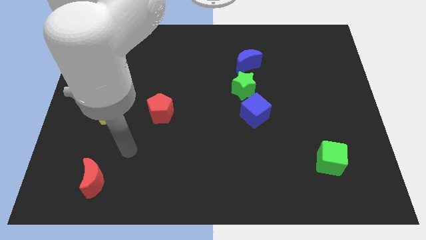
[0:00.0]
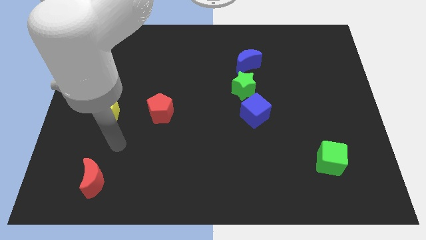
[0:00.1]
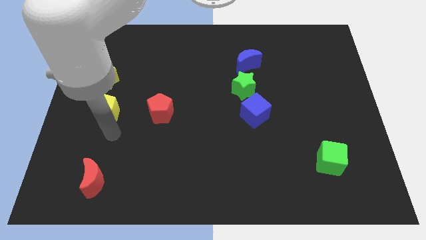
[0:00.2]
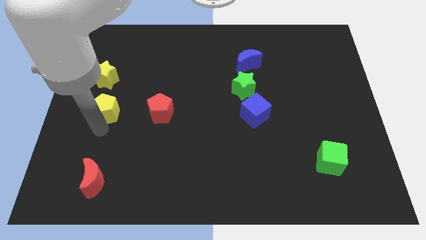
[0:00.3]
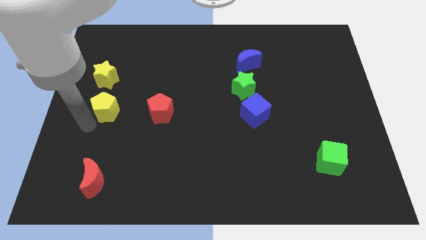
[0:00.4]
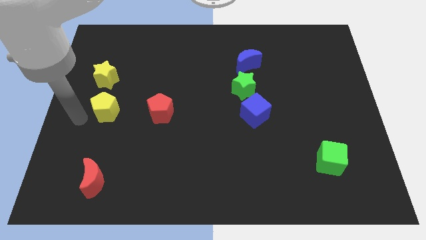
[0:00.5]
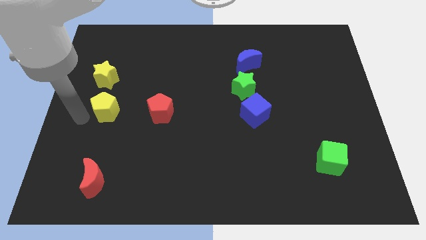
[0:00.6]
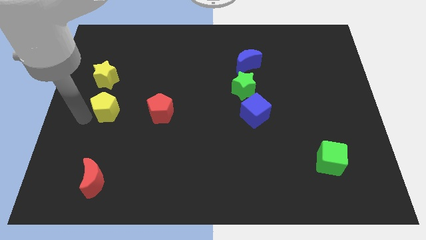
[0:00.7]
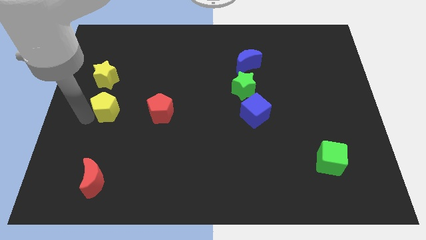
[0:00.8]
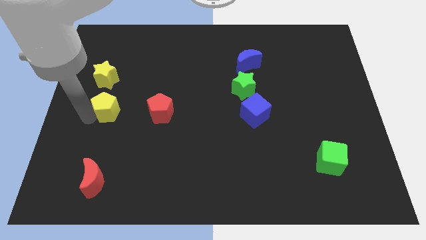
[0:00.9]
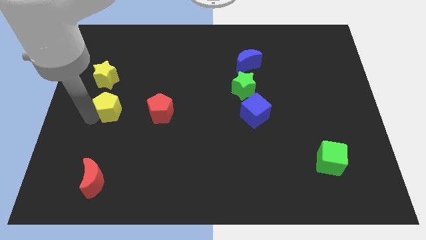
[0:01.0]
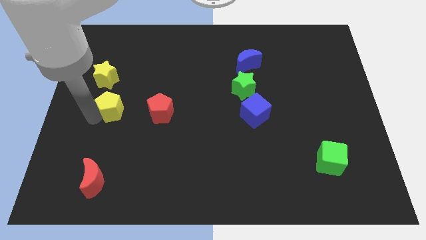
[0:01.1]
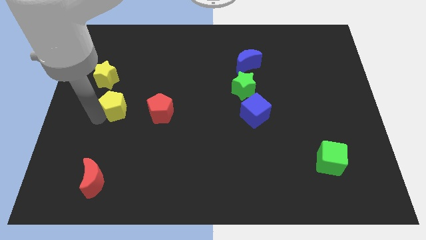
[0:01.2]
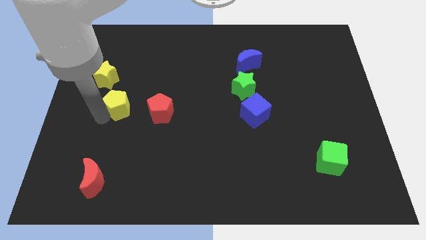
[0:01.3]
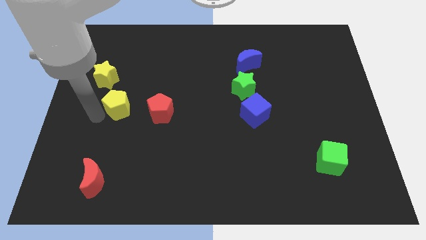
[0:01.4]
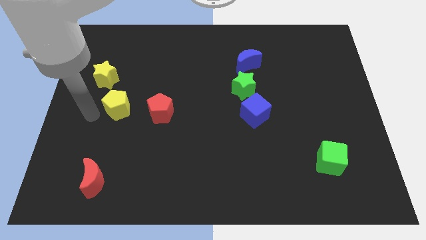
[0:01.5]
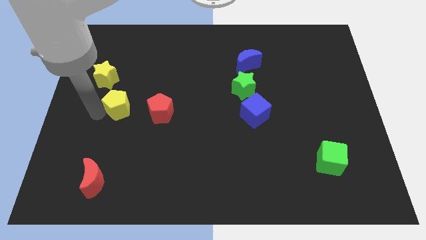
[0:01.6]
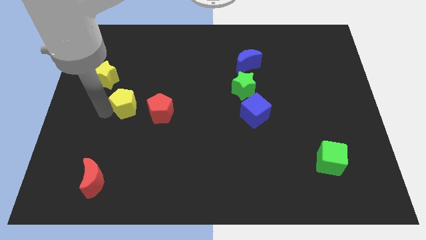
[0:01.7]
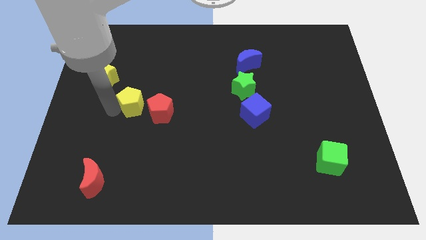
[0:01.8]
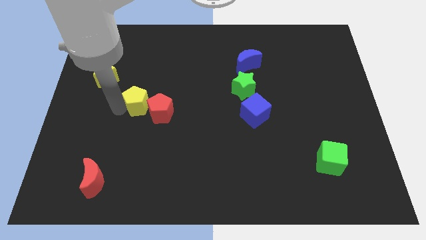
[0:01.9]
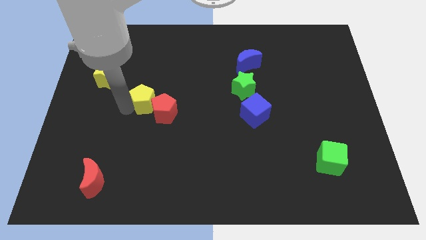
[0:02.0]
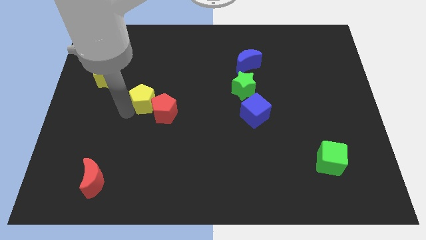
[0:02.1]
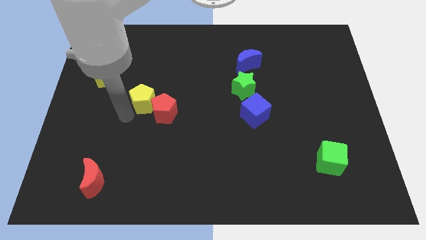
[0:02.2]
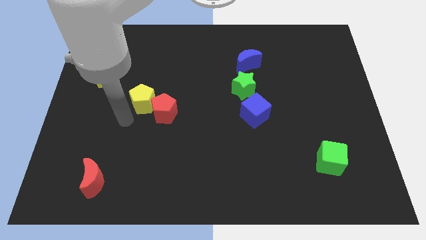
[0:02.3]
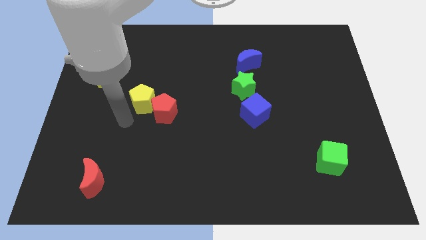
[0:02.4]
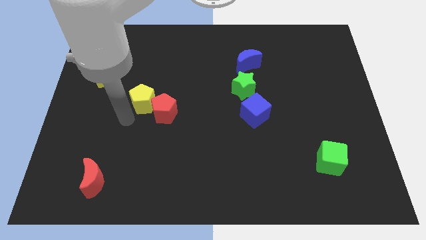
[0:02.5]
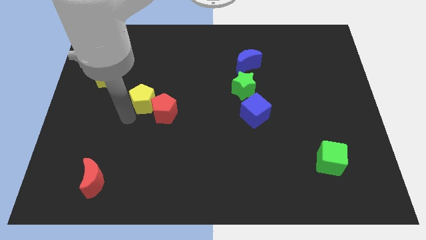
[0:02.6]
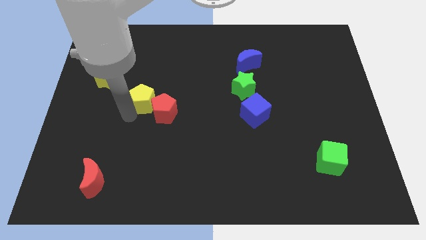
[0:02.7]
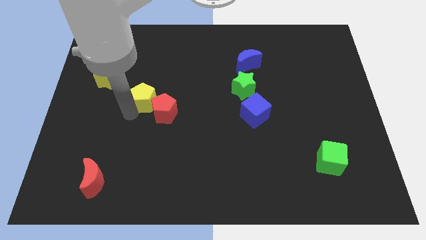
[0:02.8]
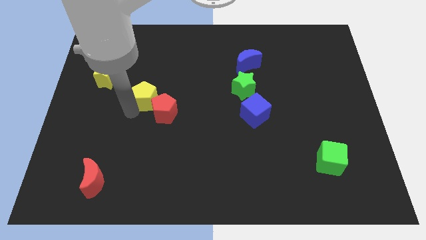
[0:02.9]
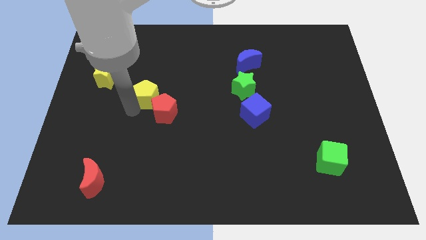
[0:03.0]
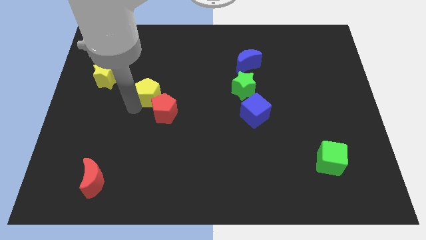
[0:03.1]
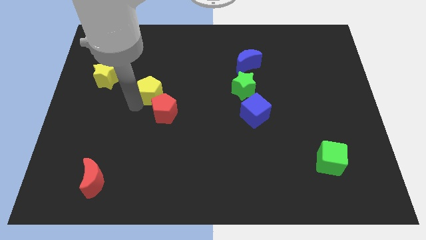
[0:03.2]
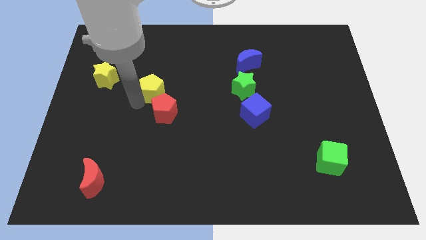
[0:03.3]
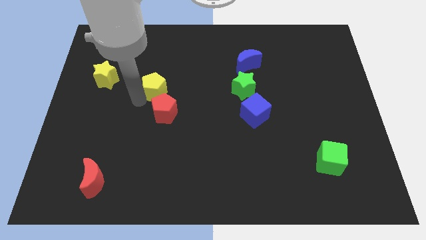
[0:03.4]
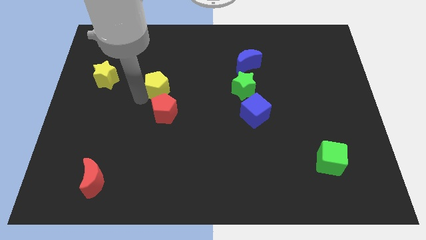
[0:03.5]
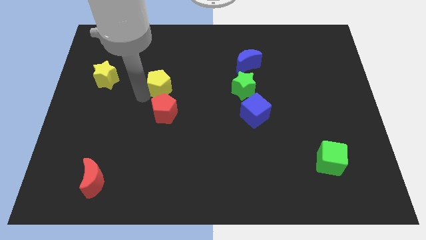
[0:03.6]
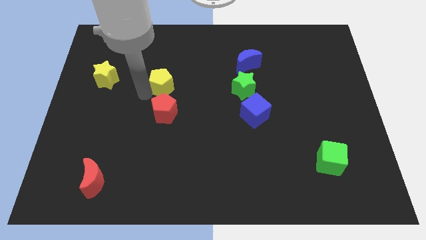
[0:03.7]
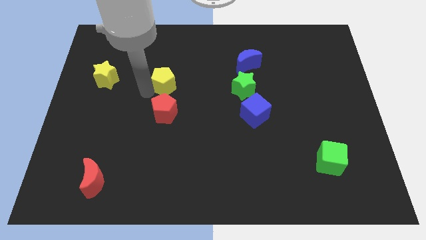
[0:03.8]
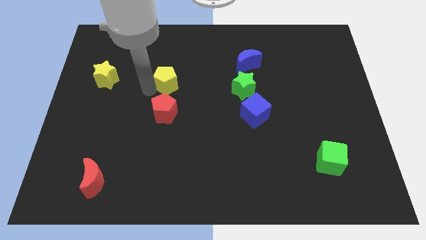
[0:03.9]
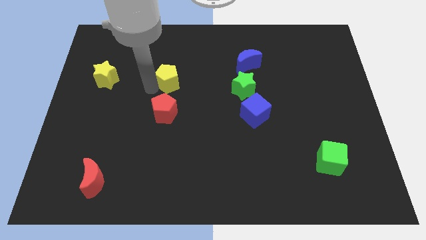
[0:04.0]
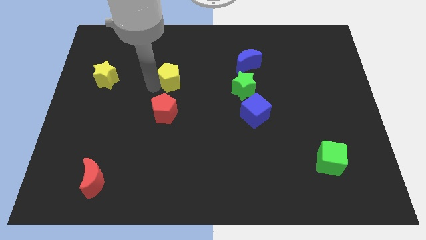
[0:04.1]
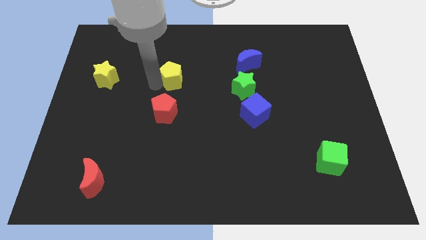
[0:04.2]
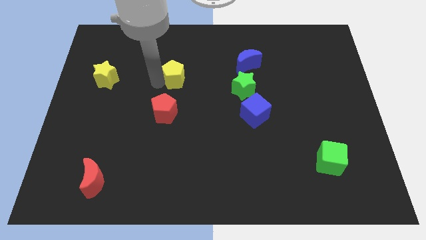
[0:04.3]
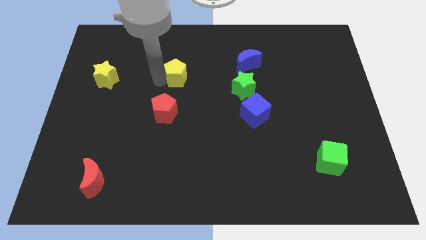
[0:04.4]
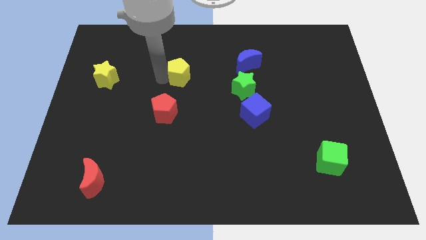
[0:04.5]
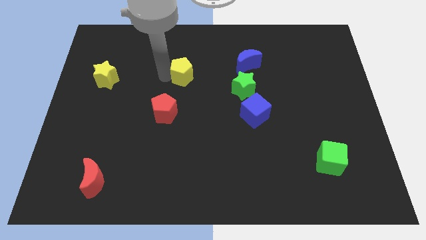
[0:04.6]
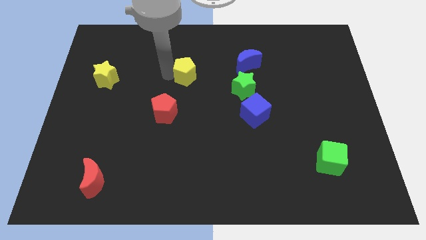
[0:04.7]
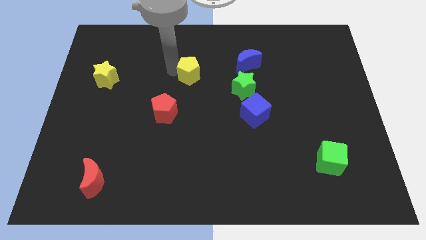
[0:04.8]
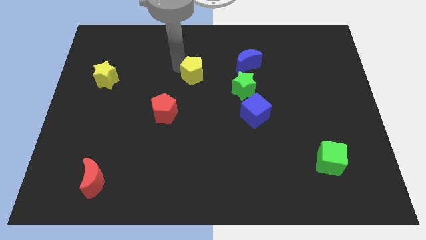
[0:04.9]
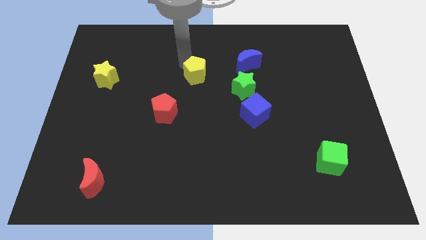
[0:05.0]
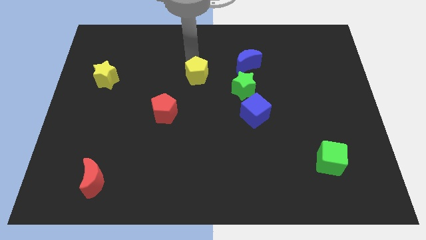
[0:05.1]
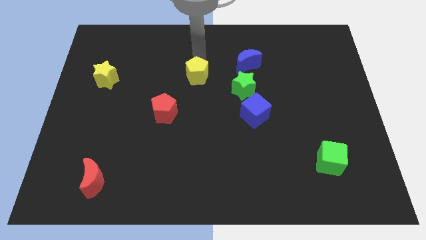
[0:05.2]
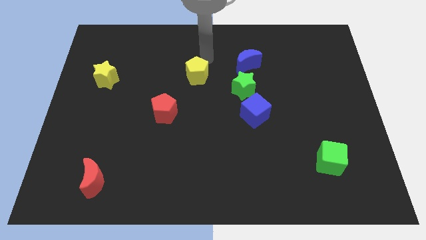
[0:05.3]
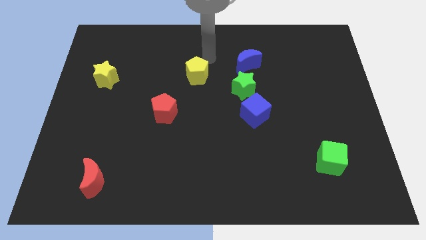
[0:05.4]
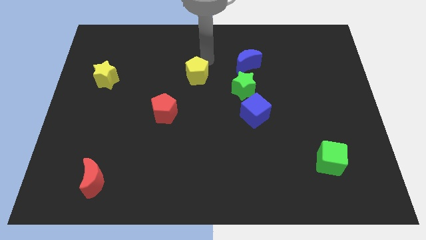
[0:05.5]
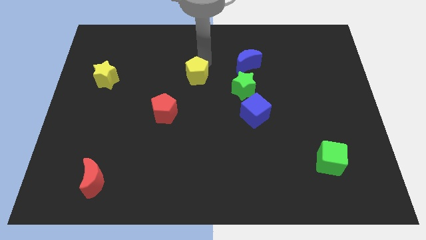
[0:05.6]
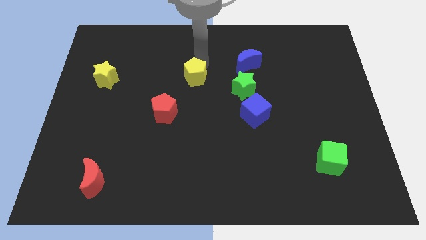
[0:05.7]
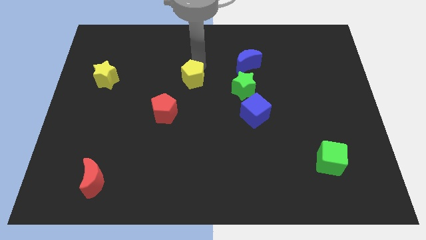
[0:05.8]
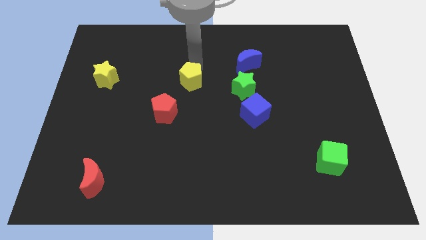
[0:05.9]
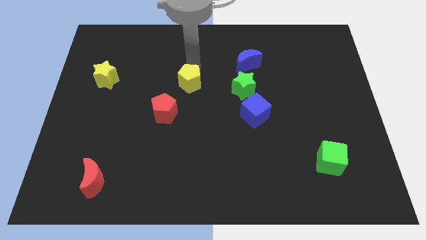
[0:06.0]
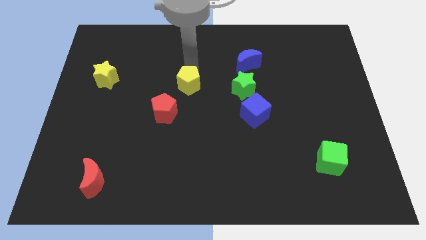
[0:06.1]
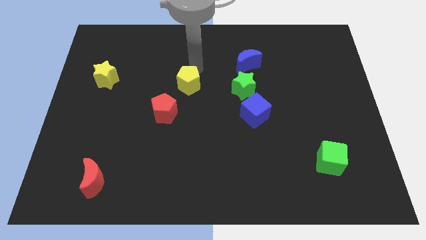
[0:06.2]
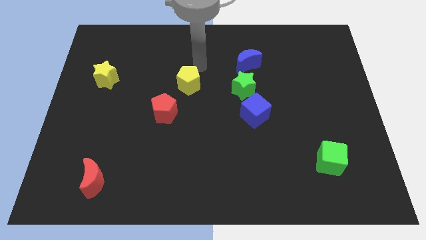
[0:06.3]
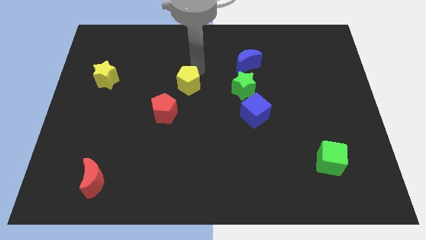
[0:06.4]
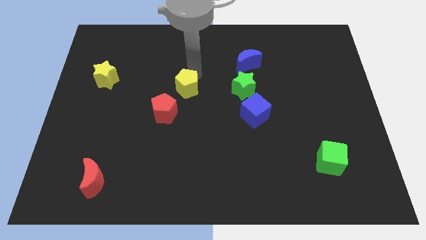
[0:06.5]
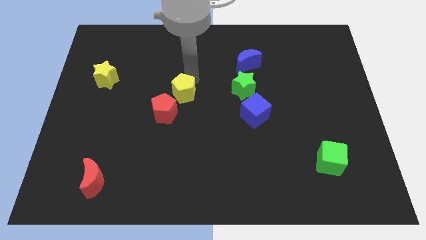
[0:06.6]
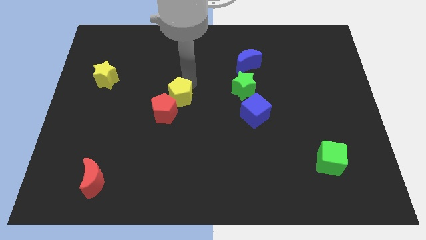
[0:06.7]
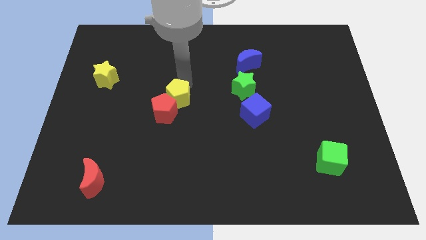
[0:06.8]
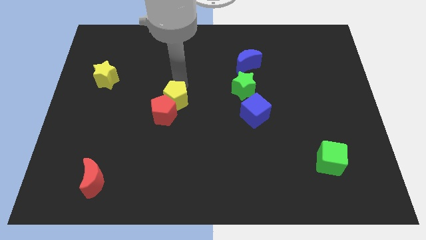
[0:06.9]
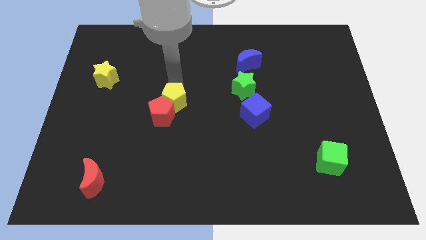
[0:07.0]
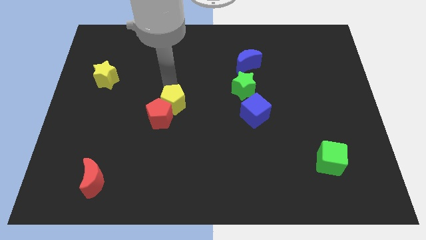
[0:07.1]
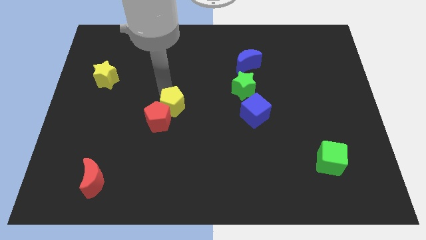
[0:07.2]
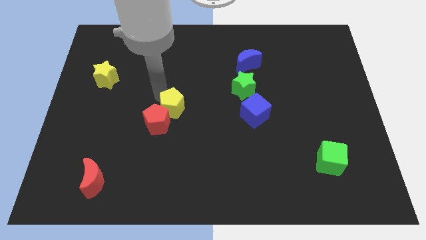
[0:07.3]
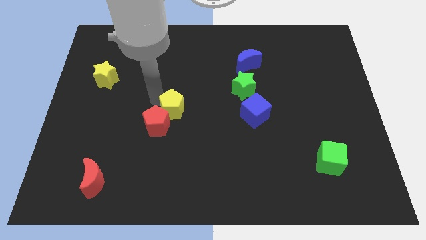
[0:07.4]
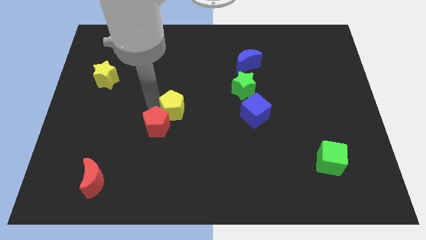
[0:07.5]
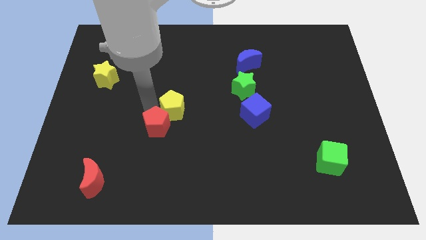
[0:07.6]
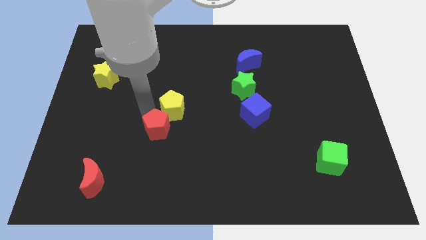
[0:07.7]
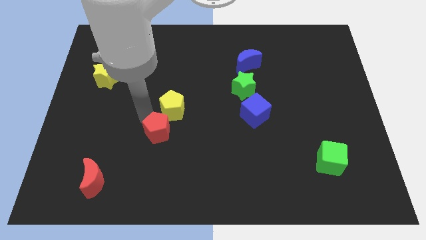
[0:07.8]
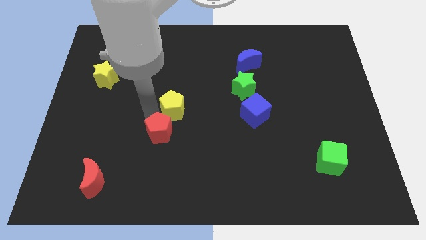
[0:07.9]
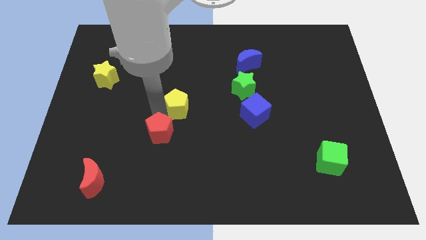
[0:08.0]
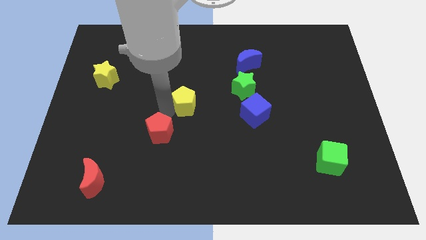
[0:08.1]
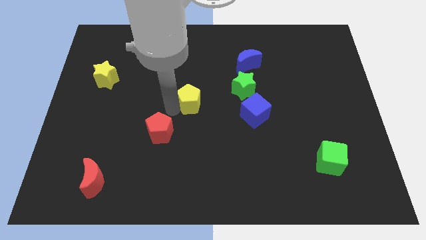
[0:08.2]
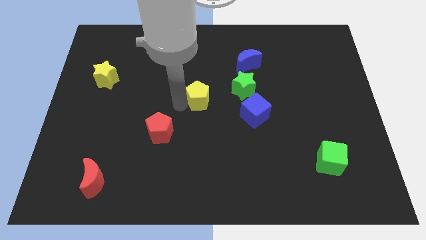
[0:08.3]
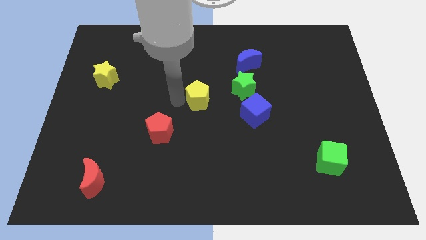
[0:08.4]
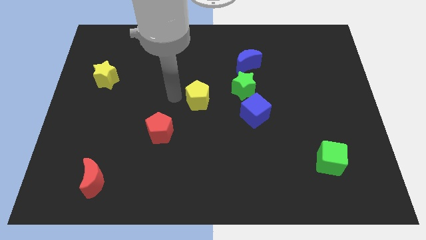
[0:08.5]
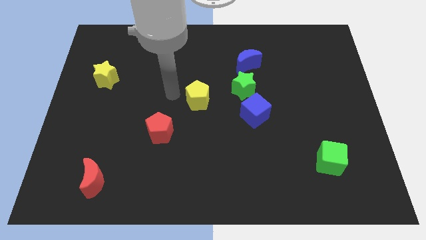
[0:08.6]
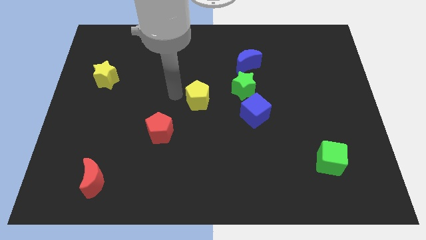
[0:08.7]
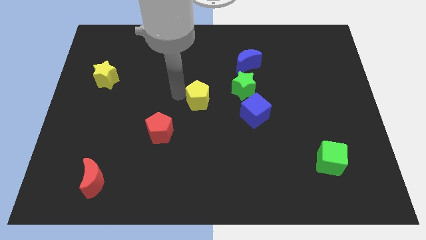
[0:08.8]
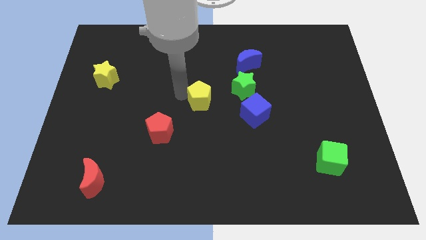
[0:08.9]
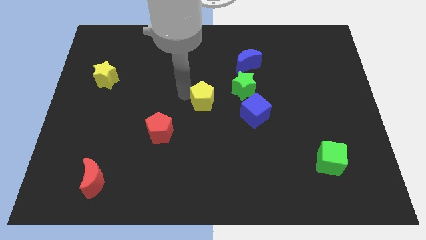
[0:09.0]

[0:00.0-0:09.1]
move the yellow pentagon to the bottom left side of the green star
